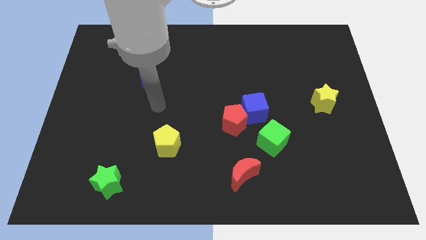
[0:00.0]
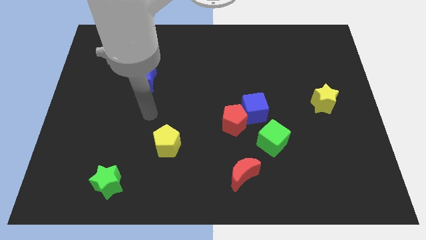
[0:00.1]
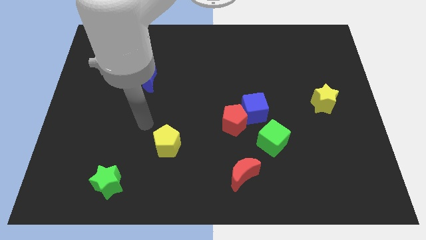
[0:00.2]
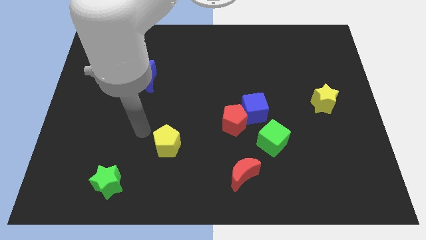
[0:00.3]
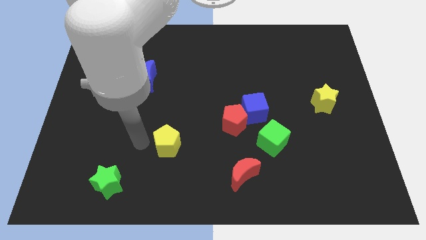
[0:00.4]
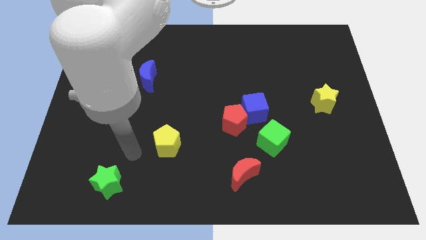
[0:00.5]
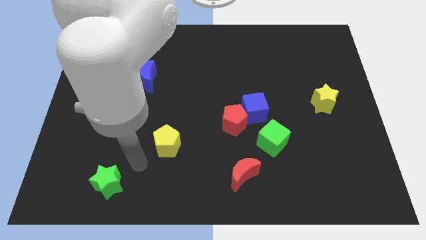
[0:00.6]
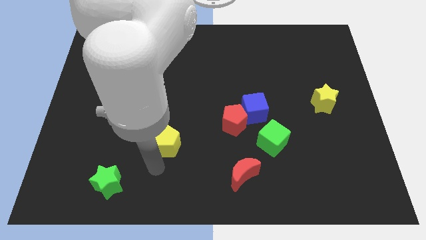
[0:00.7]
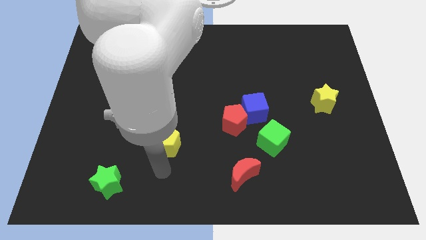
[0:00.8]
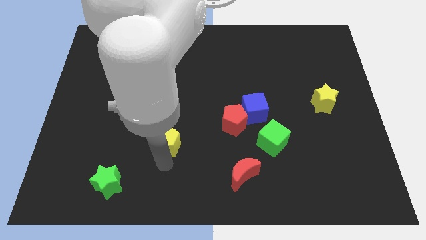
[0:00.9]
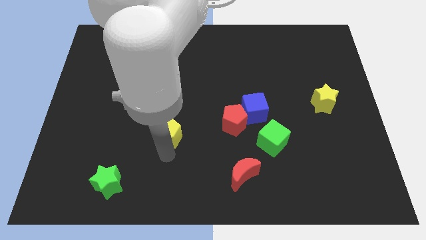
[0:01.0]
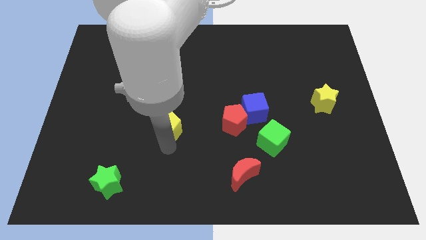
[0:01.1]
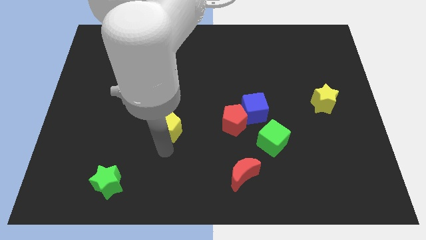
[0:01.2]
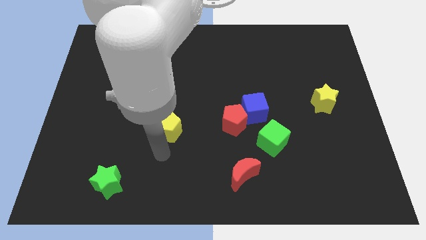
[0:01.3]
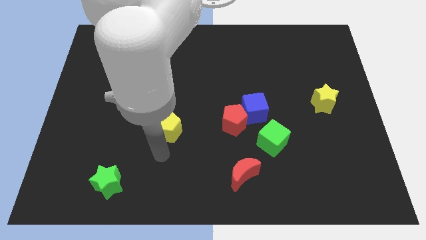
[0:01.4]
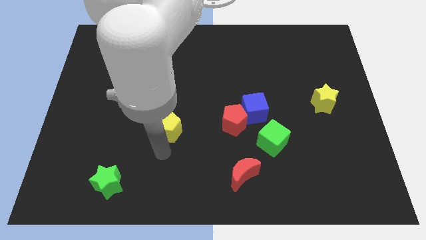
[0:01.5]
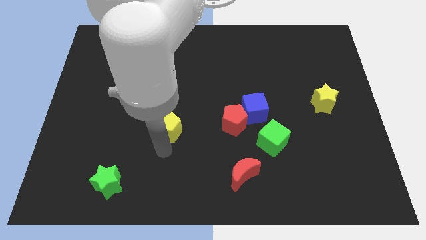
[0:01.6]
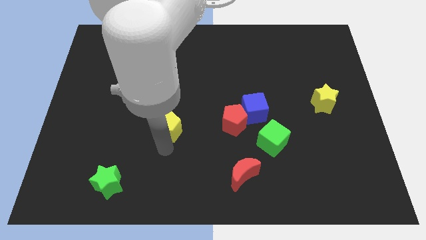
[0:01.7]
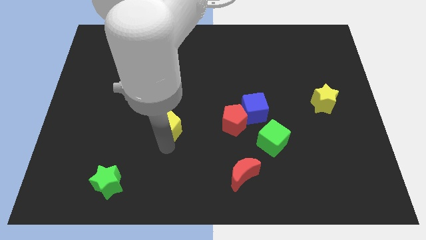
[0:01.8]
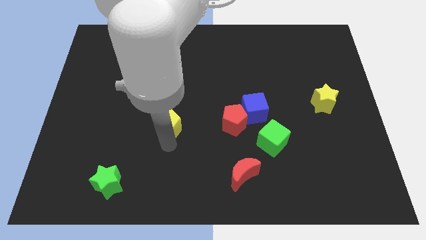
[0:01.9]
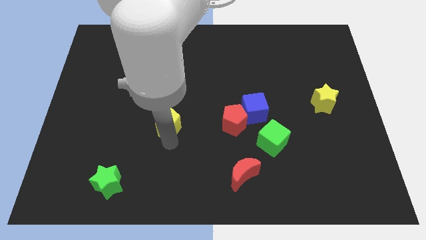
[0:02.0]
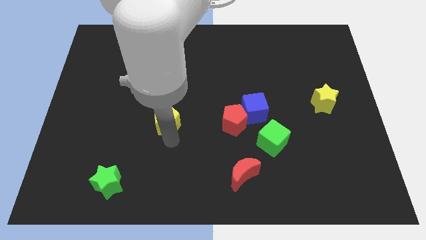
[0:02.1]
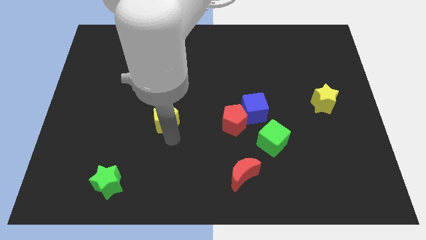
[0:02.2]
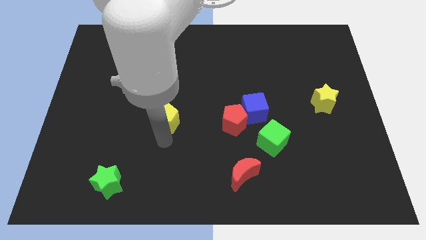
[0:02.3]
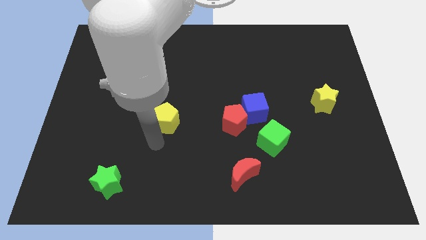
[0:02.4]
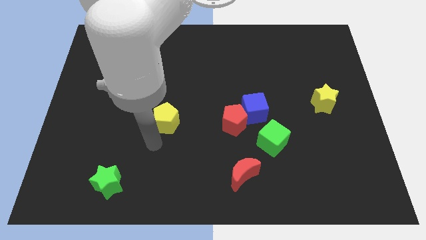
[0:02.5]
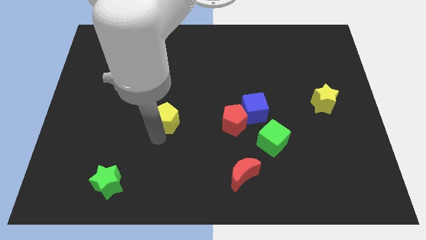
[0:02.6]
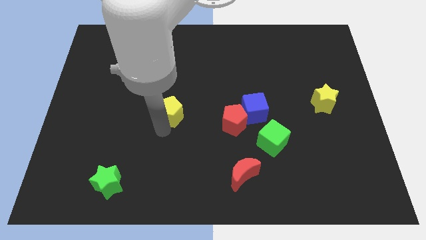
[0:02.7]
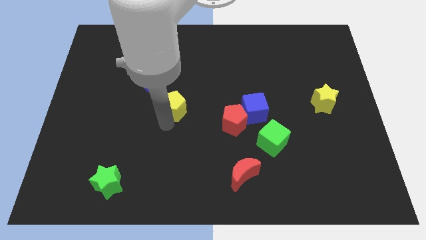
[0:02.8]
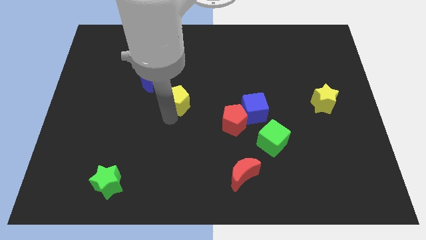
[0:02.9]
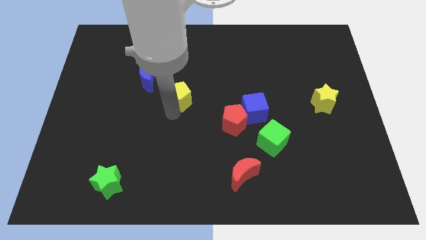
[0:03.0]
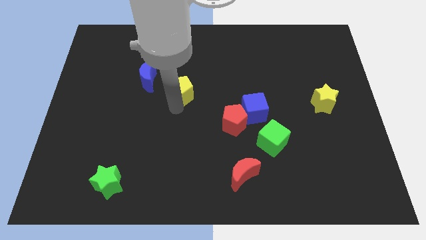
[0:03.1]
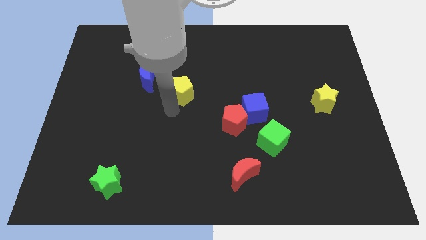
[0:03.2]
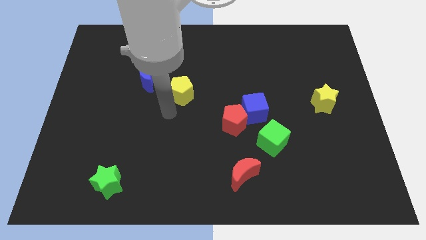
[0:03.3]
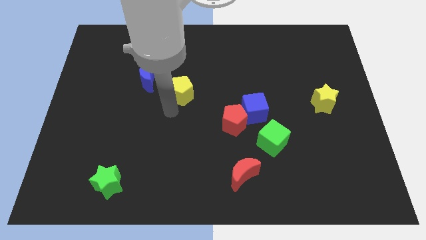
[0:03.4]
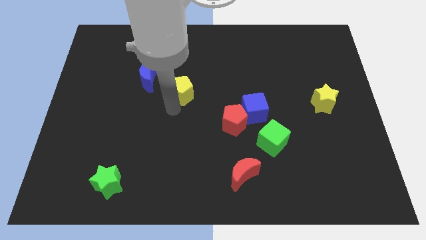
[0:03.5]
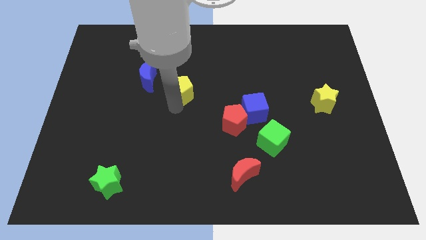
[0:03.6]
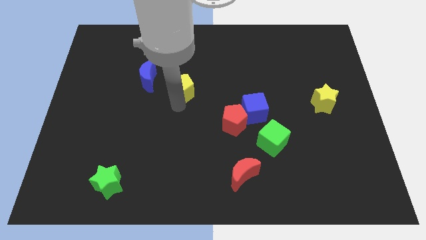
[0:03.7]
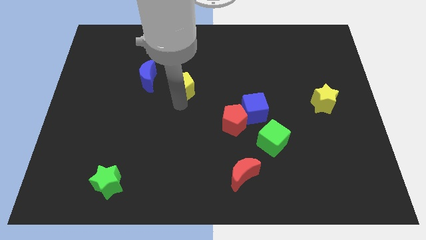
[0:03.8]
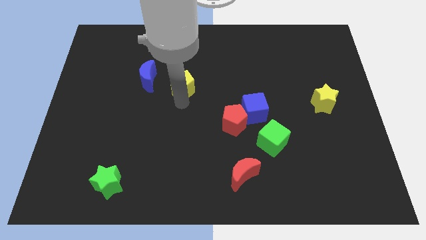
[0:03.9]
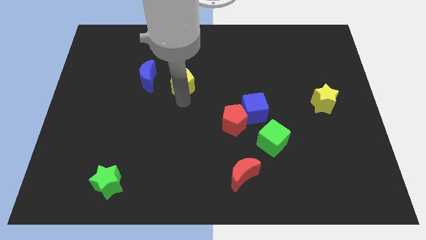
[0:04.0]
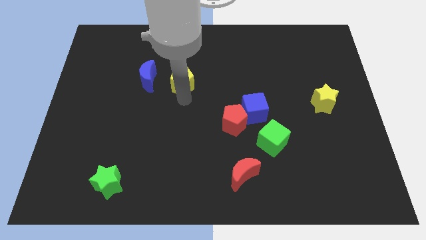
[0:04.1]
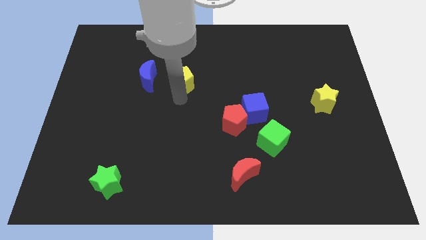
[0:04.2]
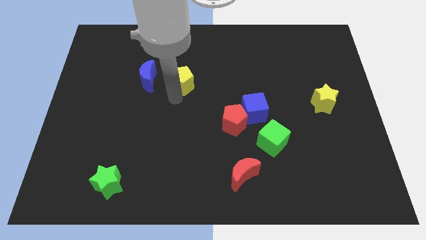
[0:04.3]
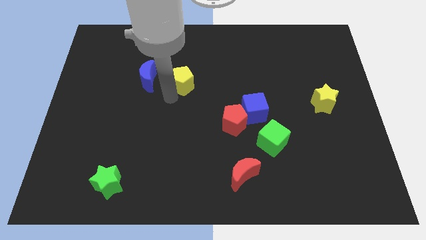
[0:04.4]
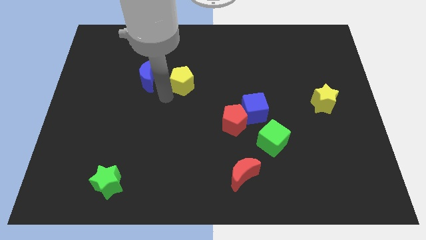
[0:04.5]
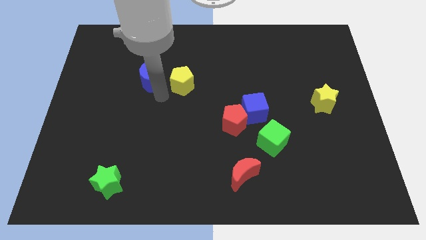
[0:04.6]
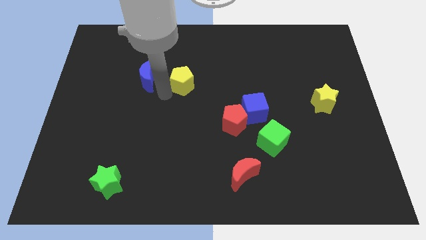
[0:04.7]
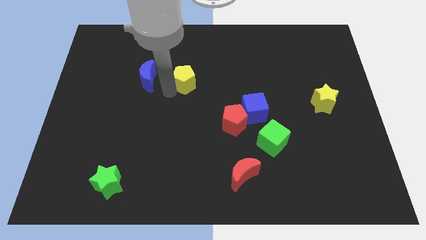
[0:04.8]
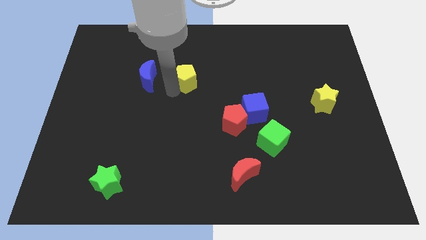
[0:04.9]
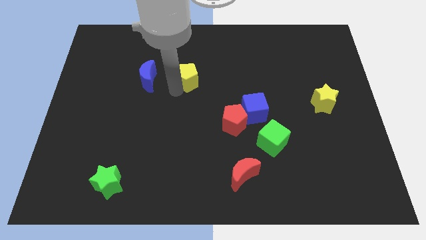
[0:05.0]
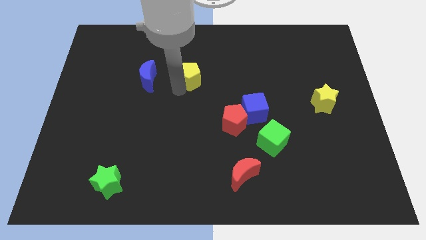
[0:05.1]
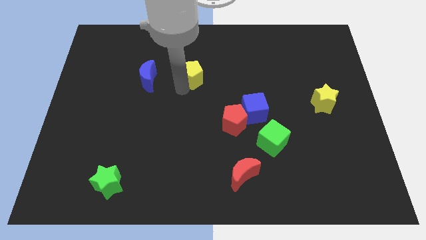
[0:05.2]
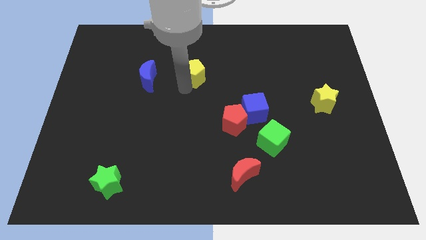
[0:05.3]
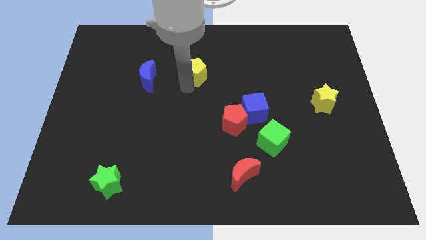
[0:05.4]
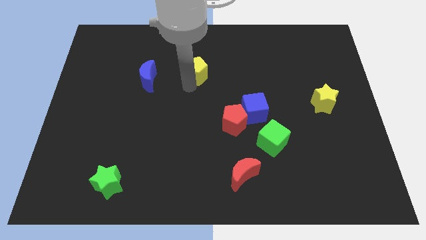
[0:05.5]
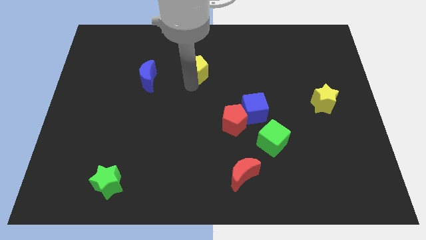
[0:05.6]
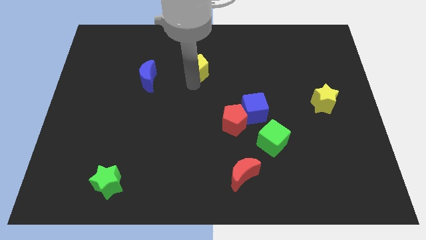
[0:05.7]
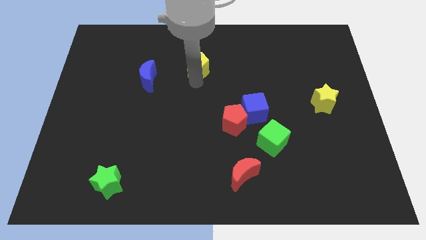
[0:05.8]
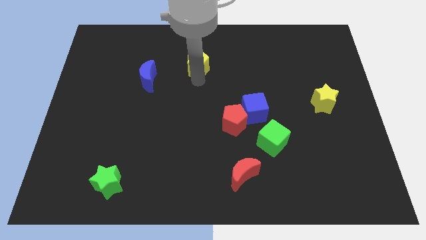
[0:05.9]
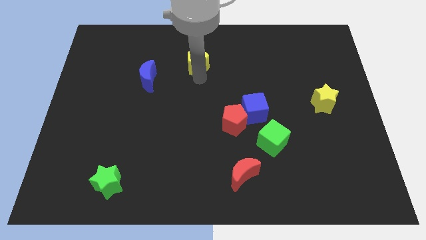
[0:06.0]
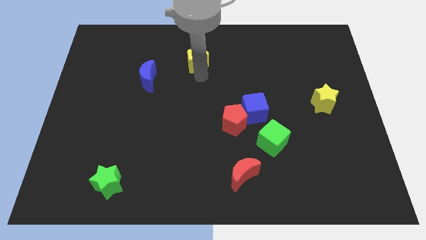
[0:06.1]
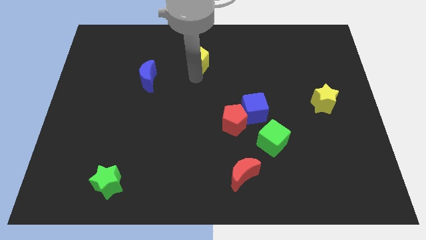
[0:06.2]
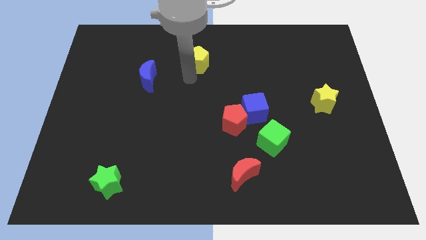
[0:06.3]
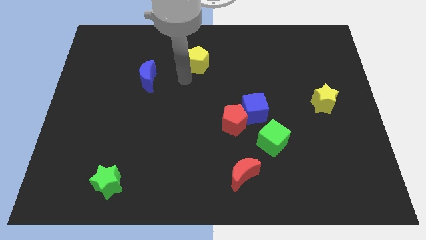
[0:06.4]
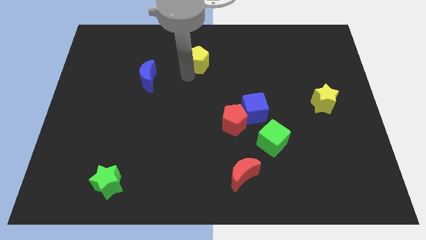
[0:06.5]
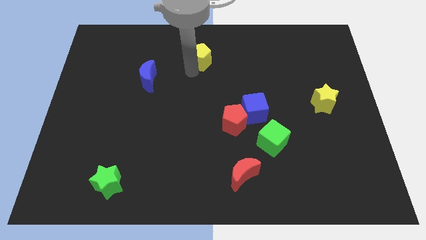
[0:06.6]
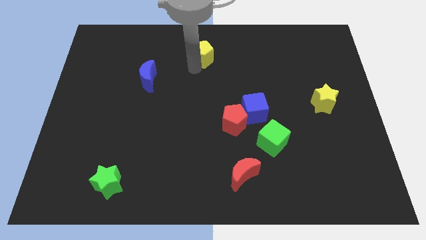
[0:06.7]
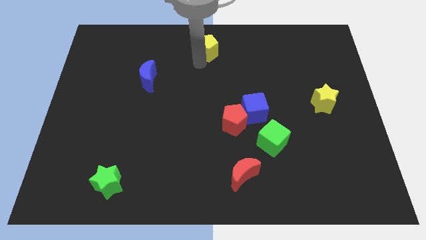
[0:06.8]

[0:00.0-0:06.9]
put the yellow pentagon to the top
